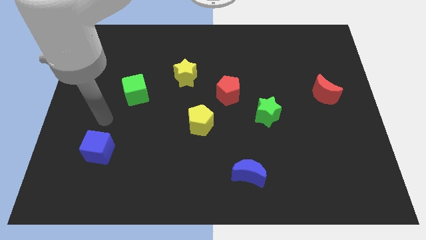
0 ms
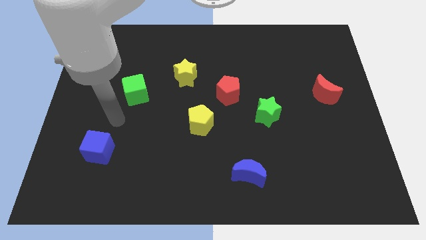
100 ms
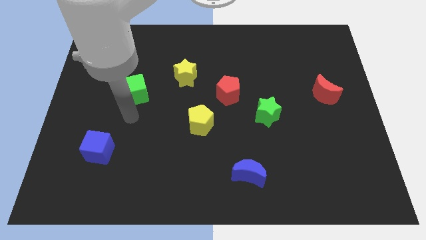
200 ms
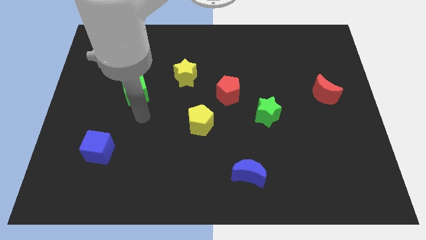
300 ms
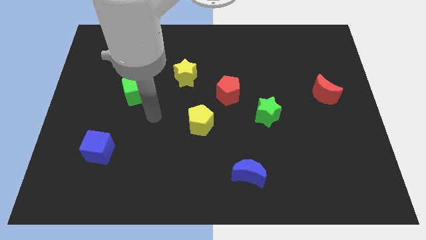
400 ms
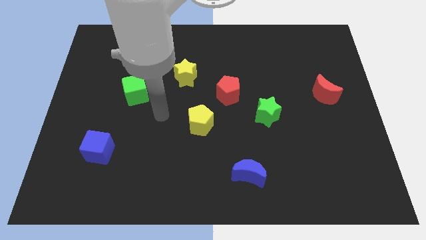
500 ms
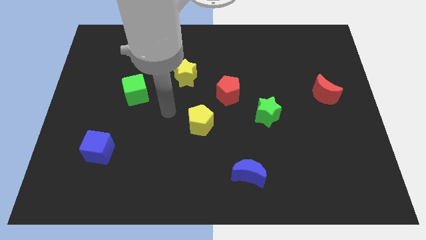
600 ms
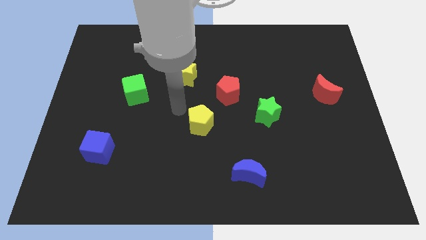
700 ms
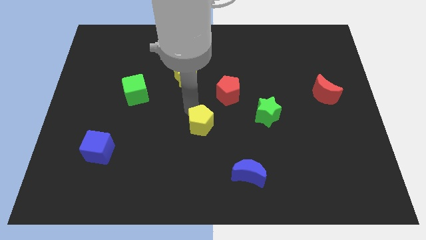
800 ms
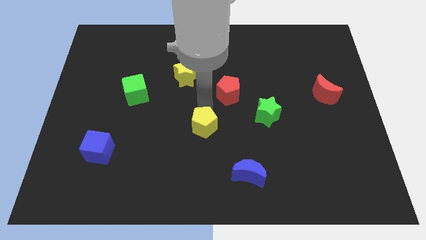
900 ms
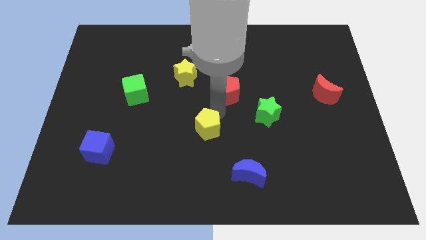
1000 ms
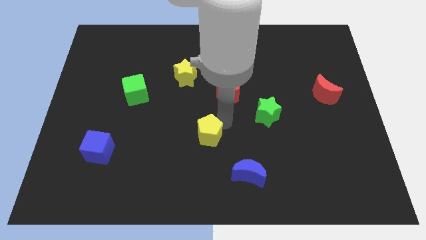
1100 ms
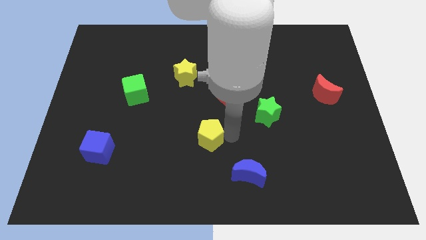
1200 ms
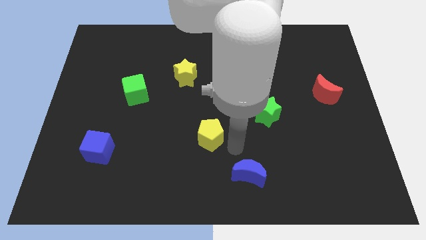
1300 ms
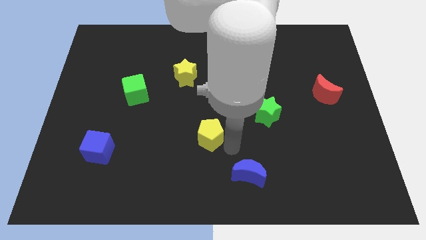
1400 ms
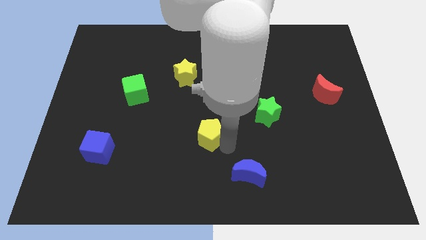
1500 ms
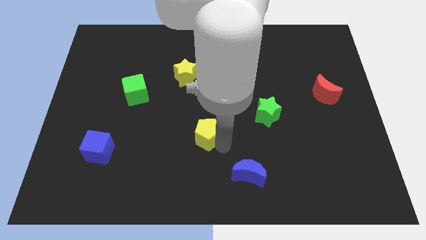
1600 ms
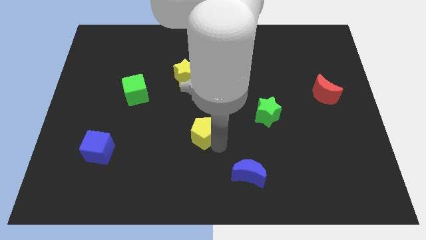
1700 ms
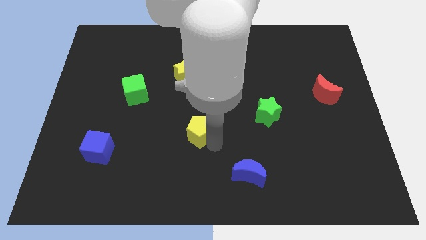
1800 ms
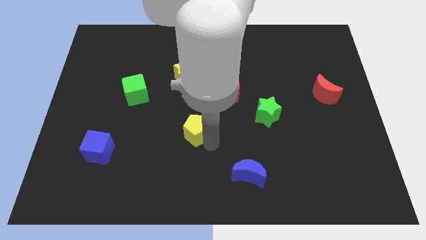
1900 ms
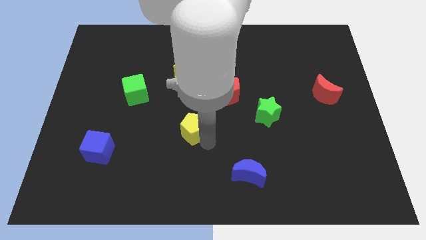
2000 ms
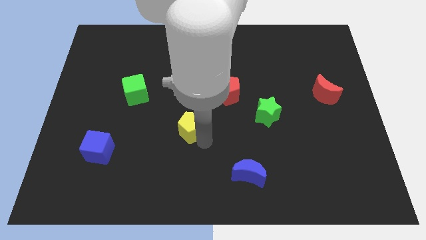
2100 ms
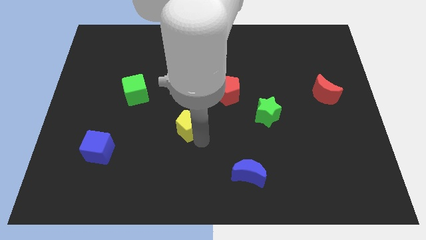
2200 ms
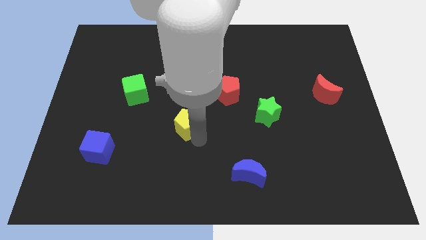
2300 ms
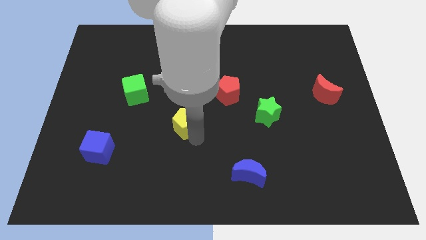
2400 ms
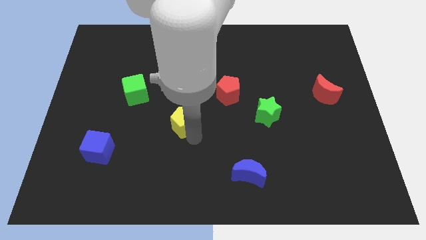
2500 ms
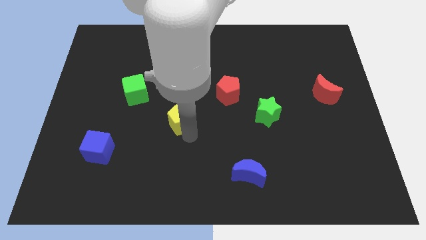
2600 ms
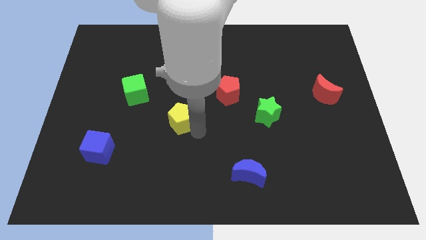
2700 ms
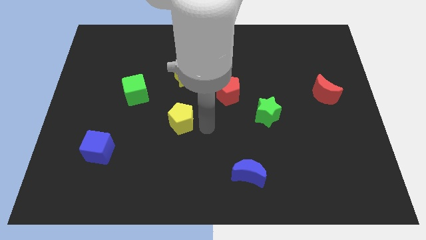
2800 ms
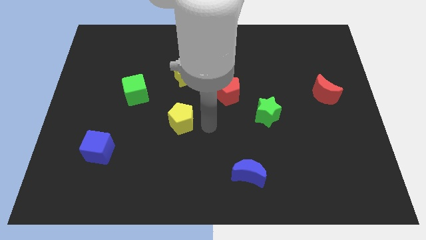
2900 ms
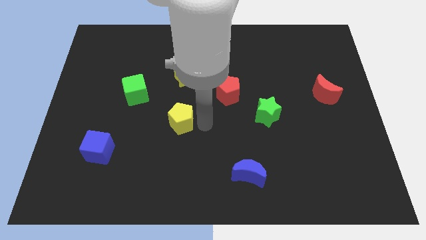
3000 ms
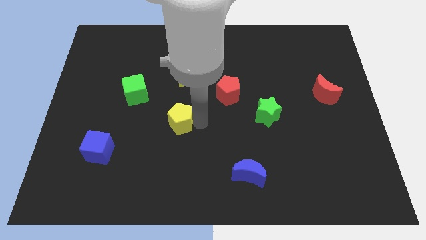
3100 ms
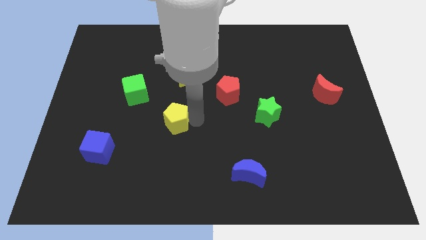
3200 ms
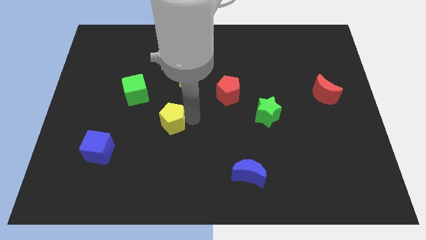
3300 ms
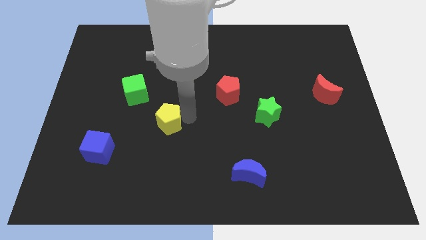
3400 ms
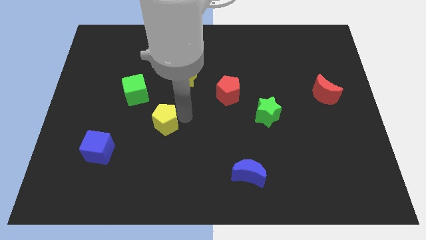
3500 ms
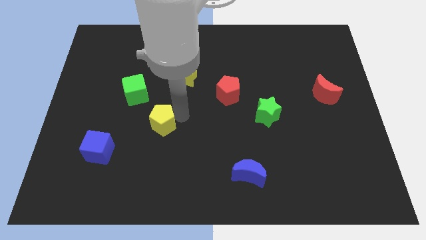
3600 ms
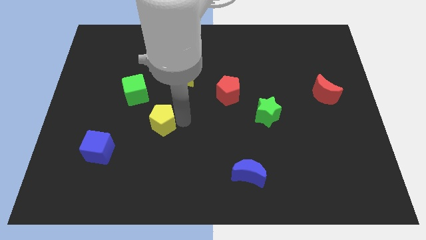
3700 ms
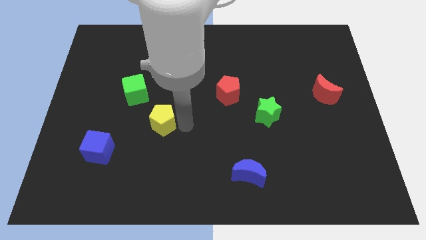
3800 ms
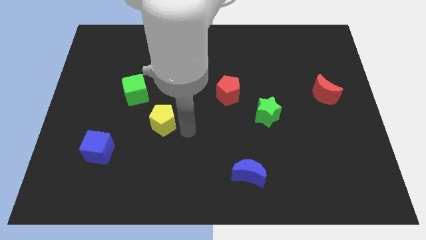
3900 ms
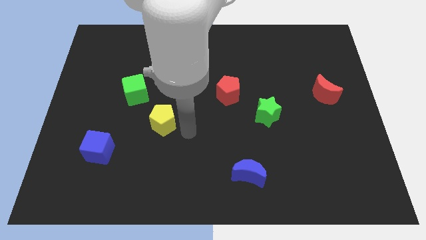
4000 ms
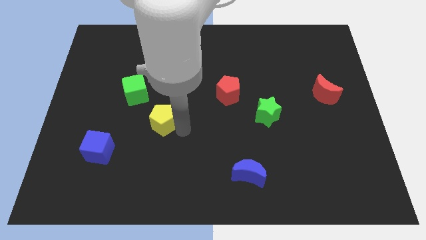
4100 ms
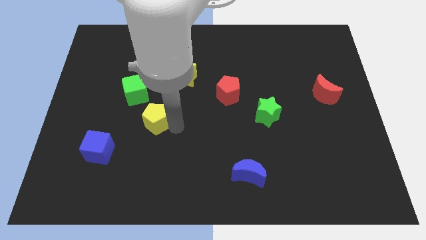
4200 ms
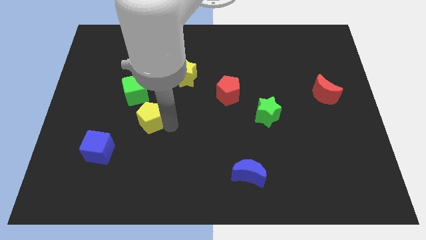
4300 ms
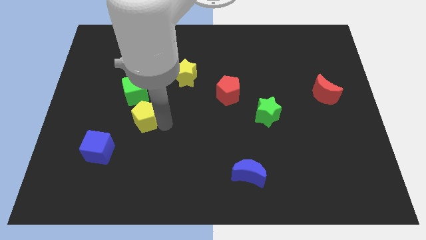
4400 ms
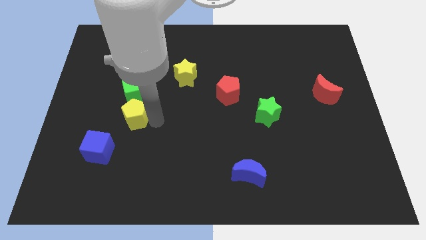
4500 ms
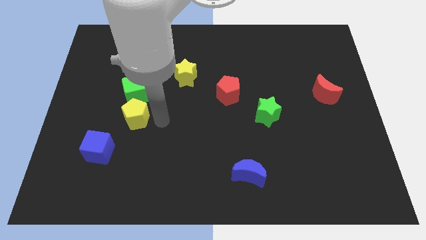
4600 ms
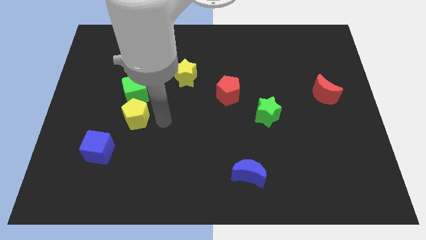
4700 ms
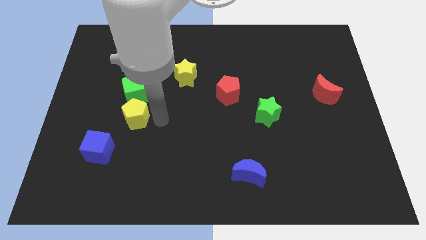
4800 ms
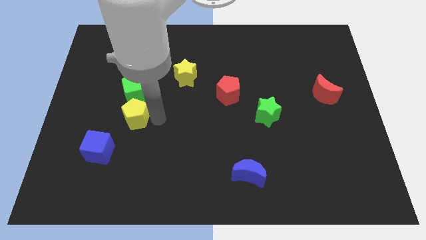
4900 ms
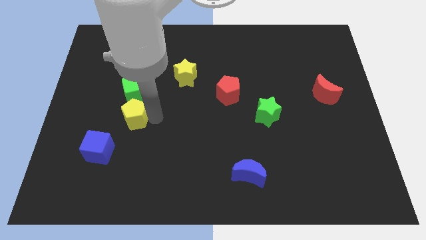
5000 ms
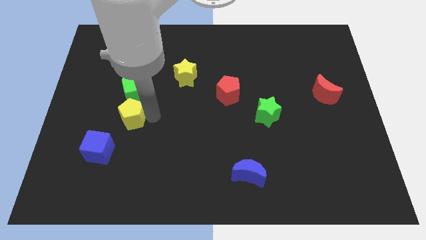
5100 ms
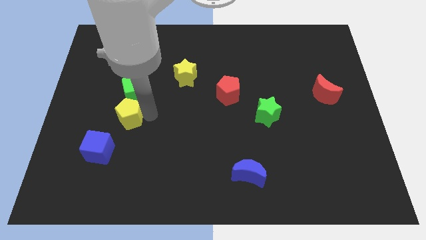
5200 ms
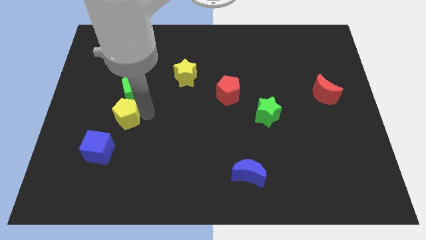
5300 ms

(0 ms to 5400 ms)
push the yellow pentagon to the top side of the blue cube

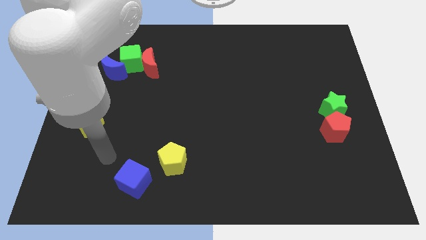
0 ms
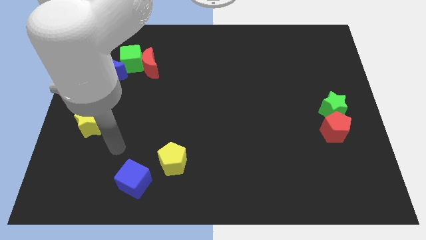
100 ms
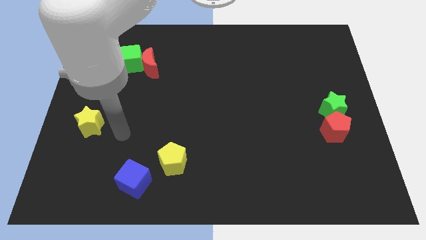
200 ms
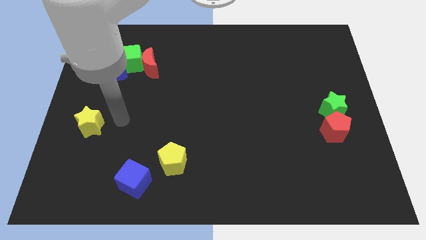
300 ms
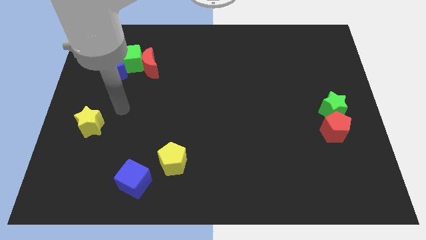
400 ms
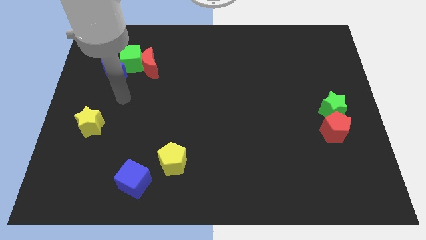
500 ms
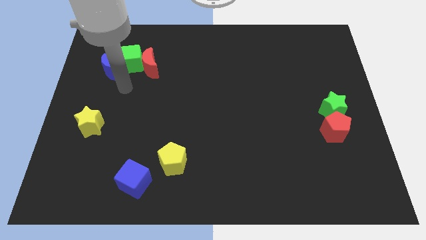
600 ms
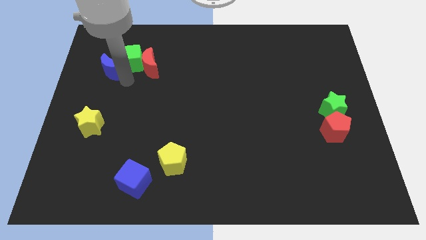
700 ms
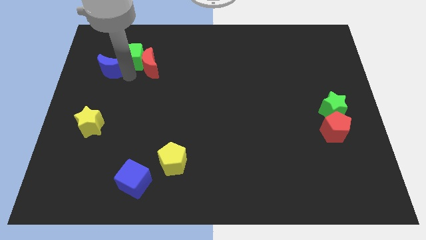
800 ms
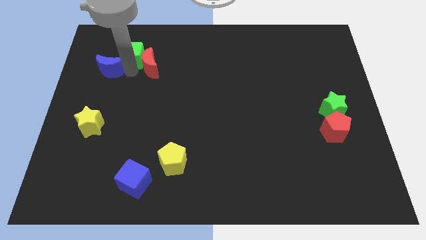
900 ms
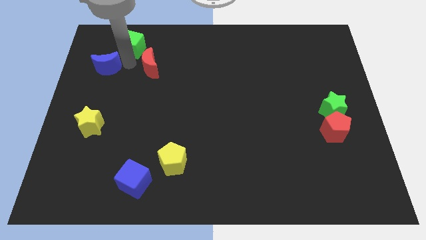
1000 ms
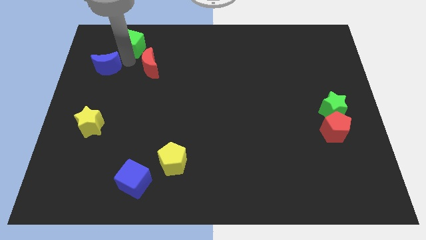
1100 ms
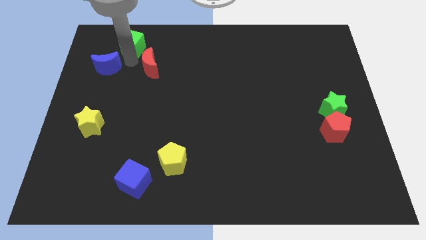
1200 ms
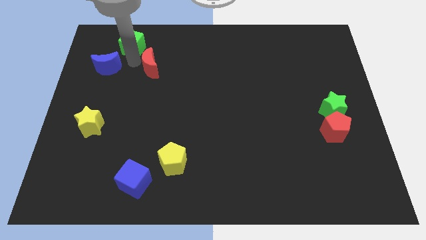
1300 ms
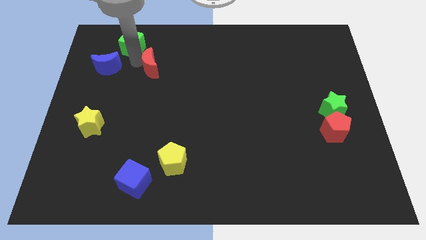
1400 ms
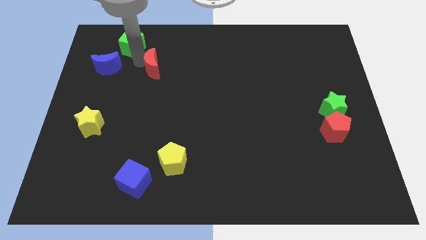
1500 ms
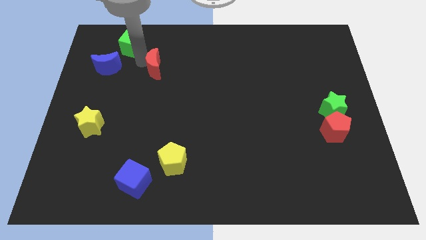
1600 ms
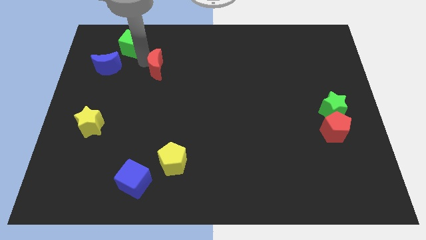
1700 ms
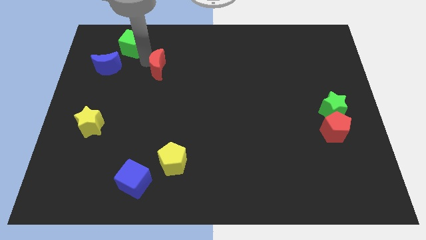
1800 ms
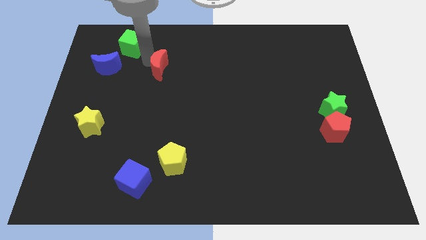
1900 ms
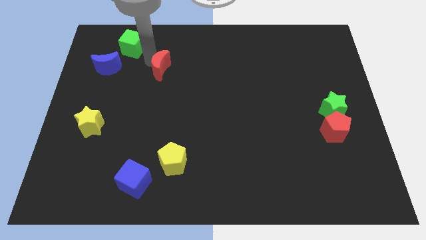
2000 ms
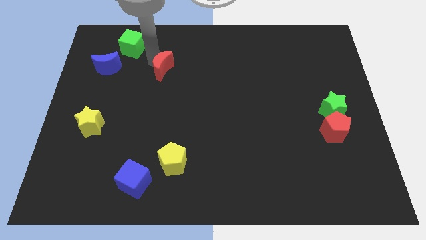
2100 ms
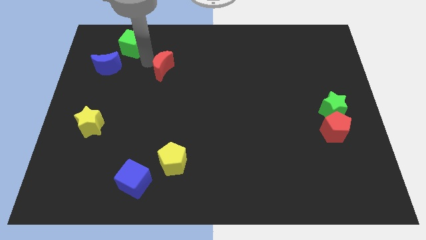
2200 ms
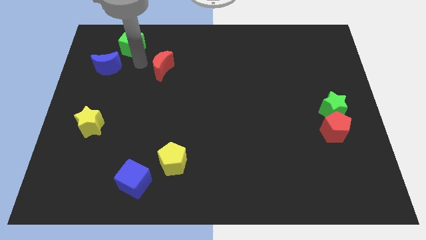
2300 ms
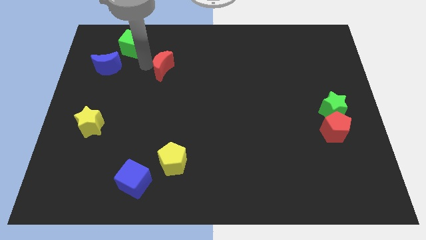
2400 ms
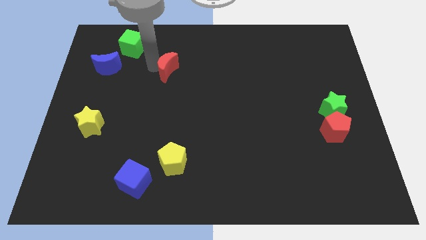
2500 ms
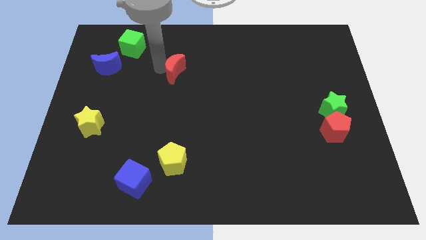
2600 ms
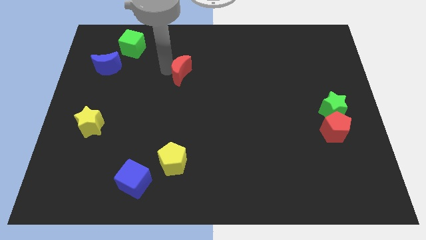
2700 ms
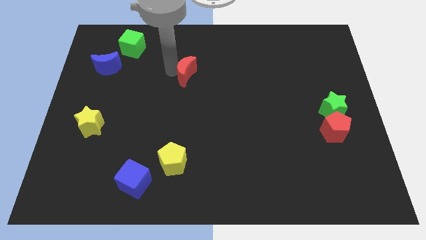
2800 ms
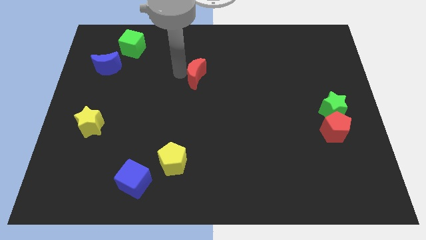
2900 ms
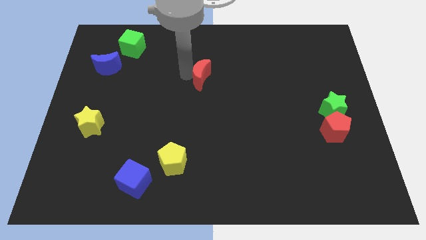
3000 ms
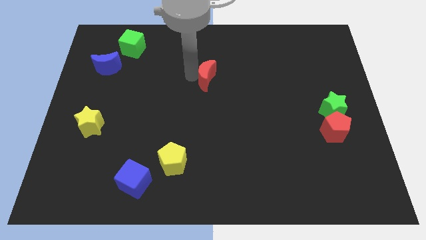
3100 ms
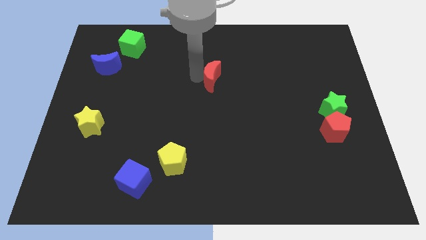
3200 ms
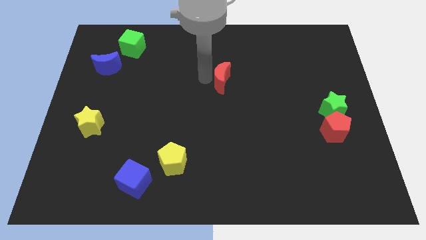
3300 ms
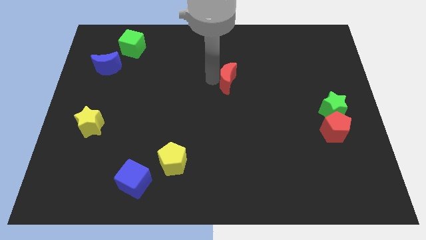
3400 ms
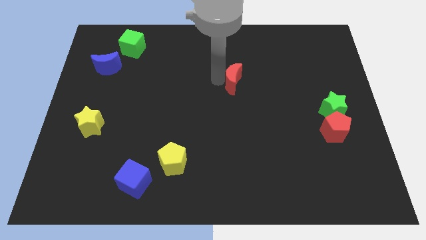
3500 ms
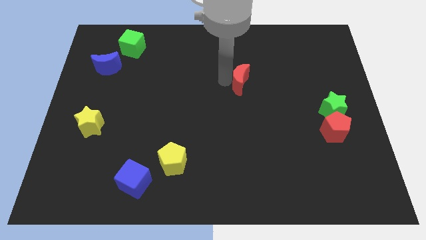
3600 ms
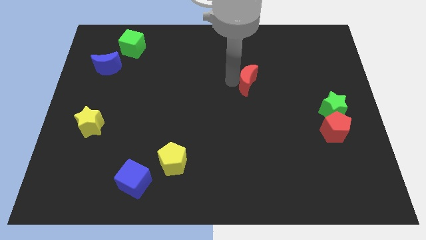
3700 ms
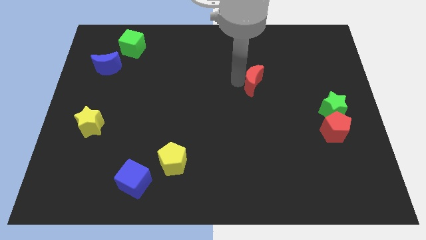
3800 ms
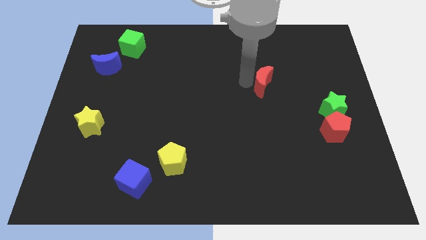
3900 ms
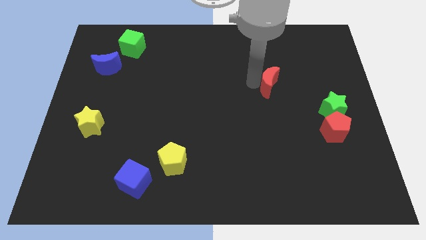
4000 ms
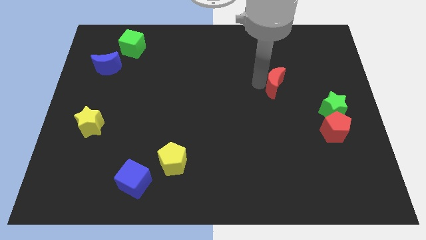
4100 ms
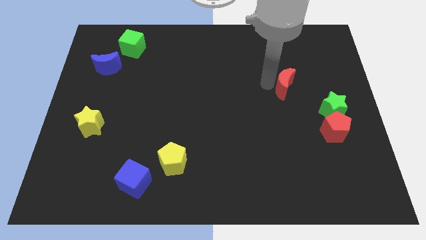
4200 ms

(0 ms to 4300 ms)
slide the red moon to the top left side of the green star
